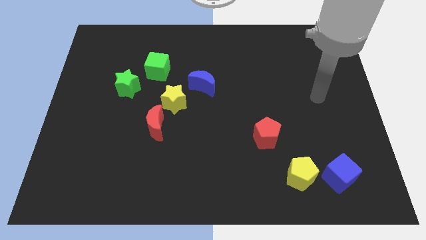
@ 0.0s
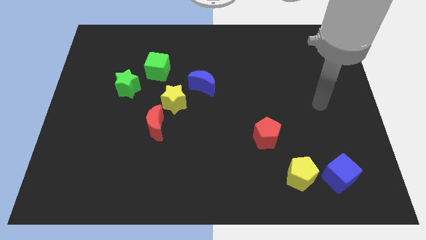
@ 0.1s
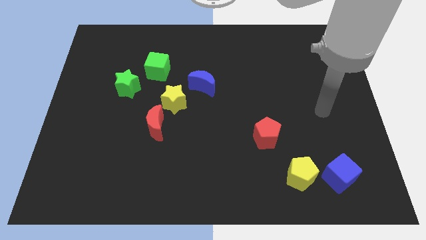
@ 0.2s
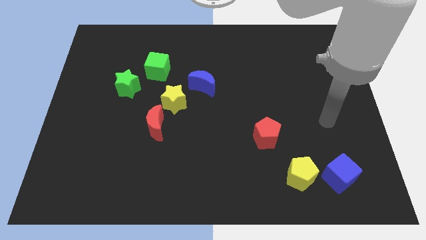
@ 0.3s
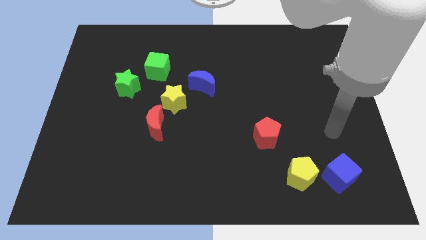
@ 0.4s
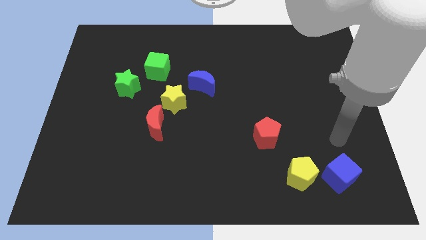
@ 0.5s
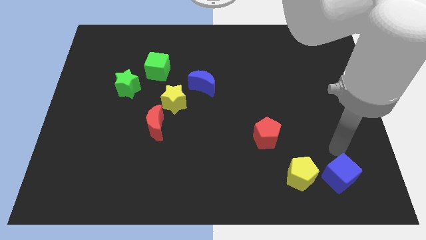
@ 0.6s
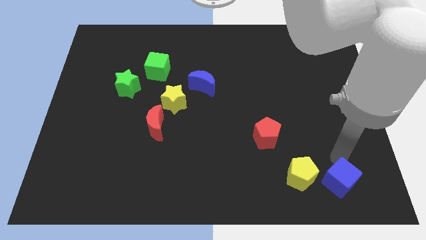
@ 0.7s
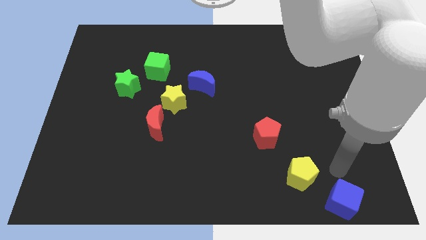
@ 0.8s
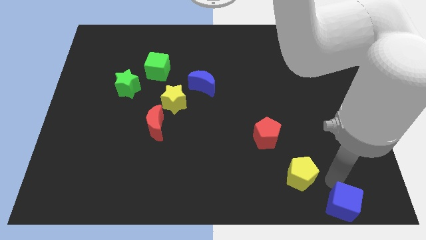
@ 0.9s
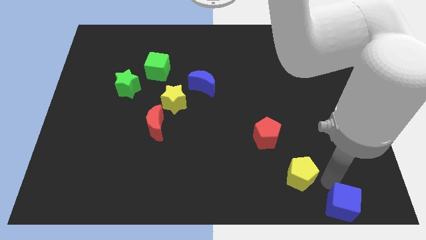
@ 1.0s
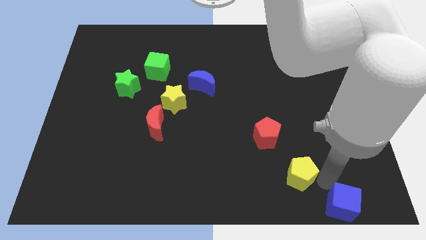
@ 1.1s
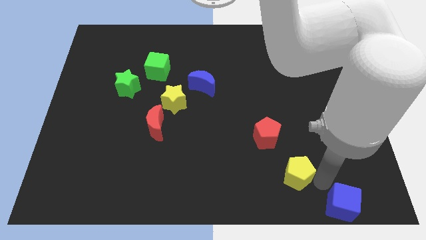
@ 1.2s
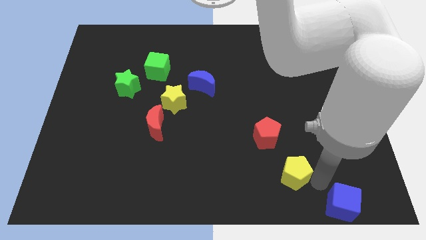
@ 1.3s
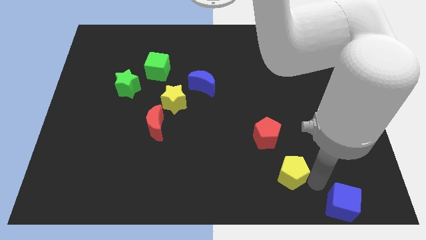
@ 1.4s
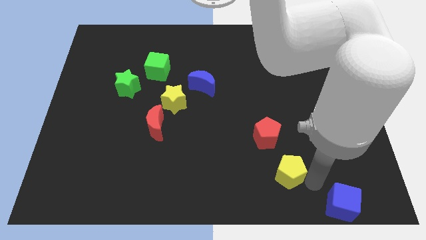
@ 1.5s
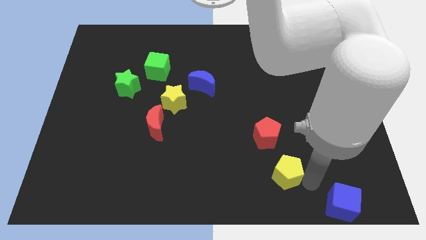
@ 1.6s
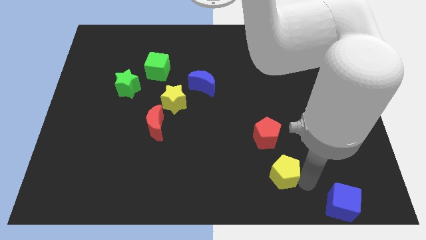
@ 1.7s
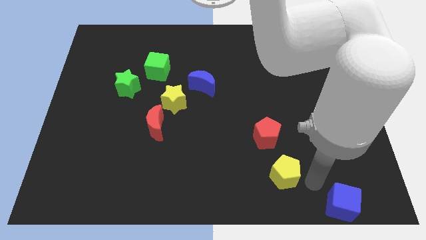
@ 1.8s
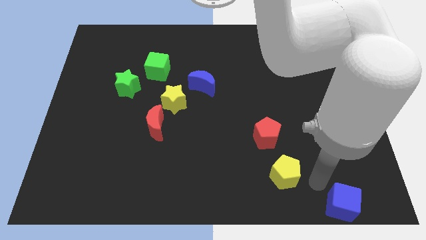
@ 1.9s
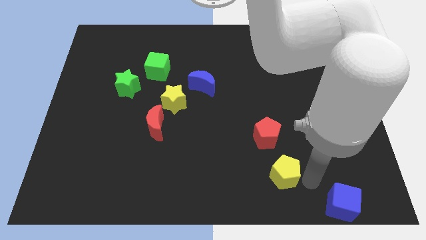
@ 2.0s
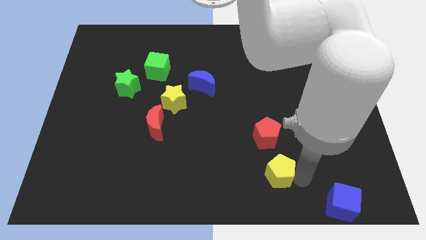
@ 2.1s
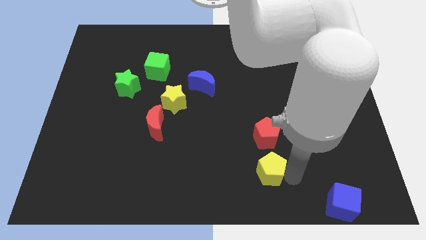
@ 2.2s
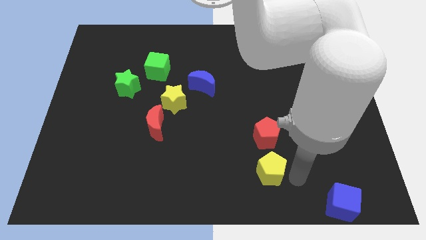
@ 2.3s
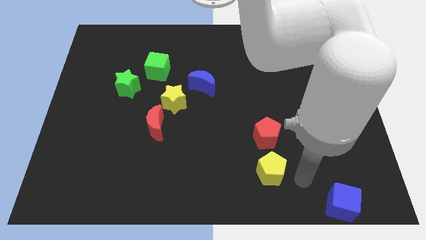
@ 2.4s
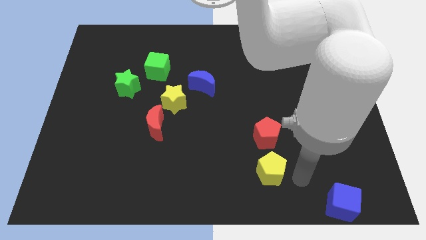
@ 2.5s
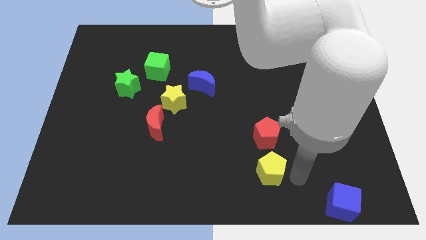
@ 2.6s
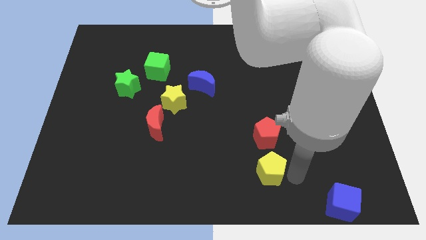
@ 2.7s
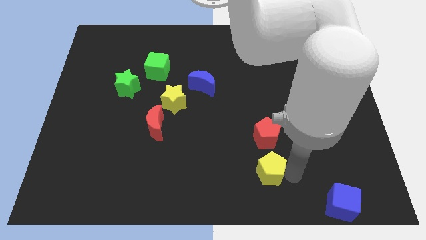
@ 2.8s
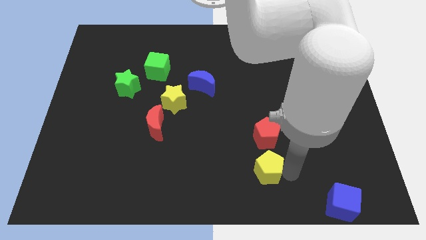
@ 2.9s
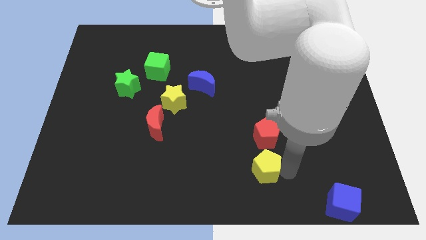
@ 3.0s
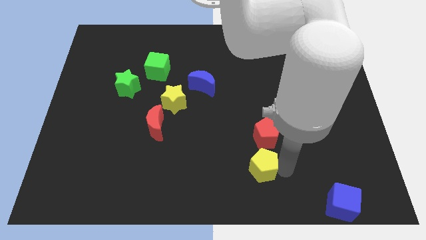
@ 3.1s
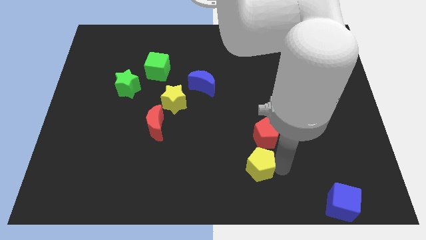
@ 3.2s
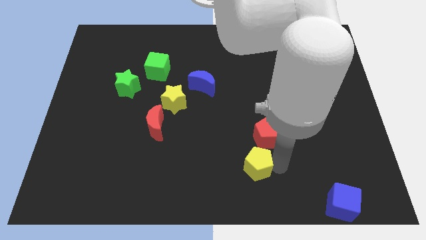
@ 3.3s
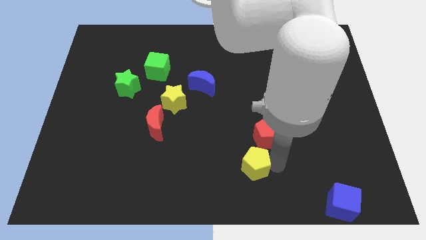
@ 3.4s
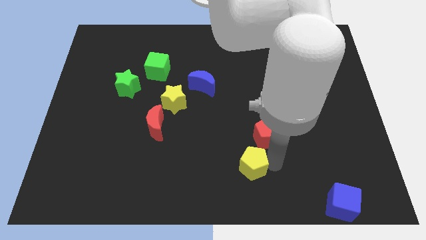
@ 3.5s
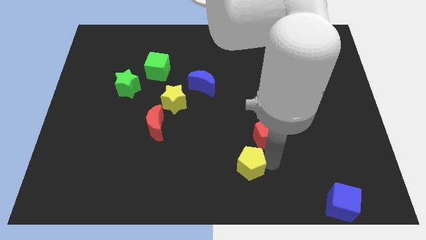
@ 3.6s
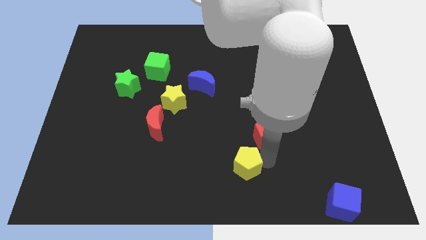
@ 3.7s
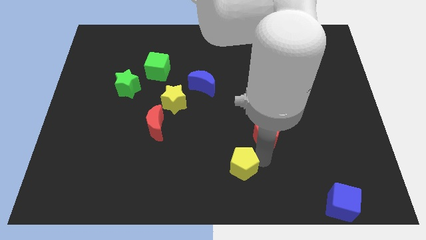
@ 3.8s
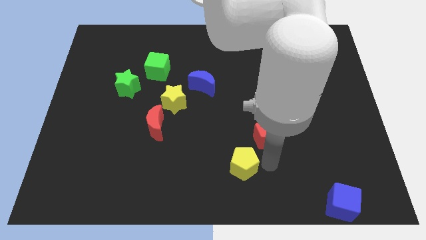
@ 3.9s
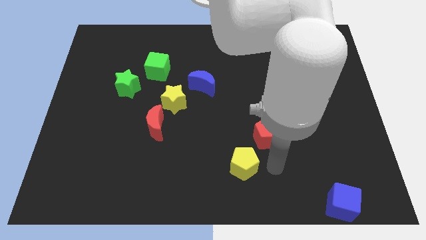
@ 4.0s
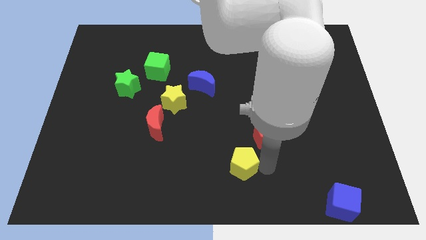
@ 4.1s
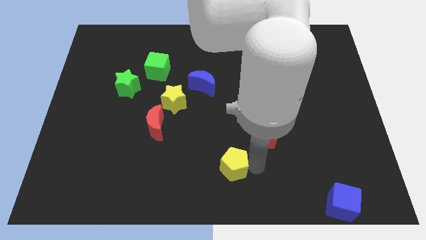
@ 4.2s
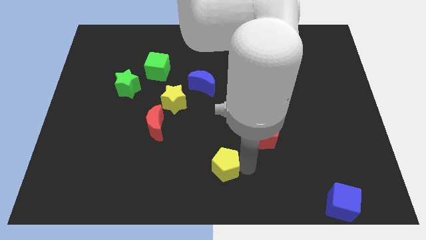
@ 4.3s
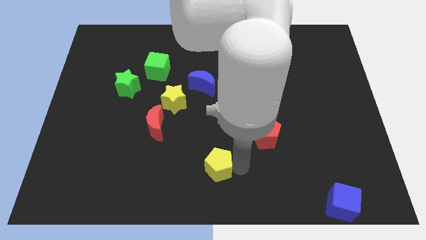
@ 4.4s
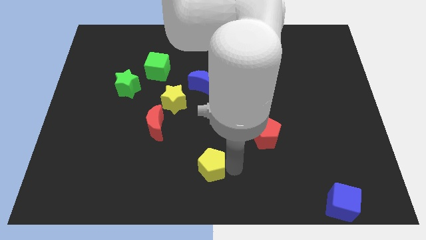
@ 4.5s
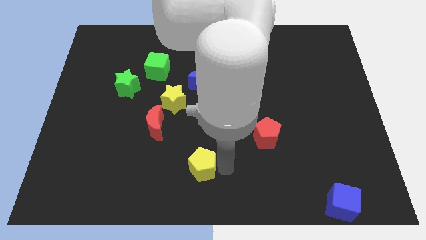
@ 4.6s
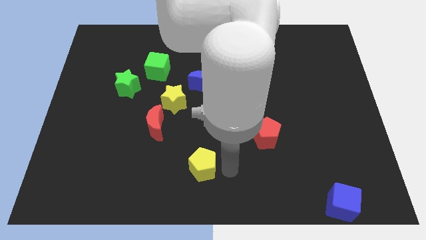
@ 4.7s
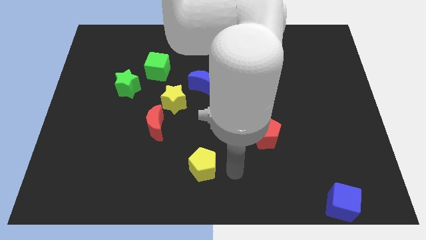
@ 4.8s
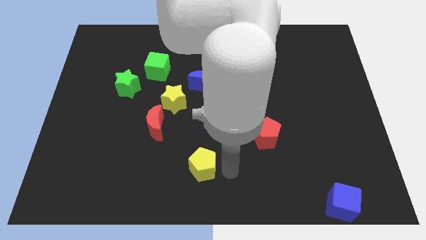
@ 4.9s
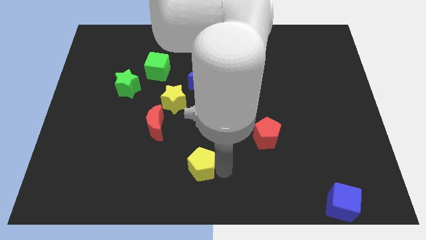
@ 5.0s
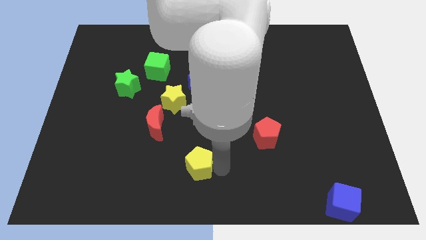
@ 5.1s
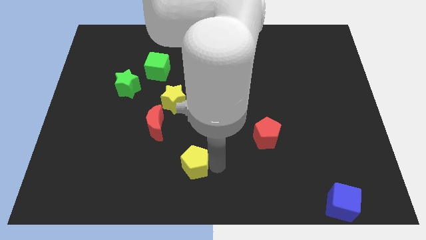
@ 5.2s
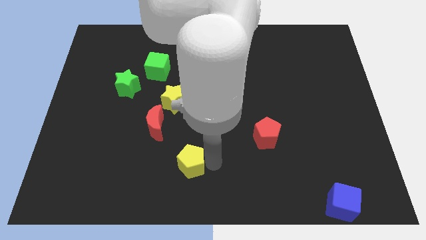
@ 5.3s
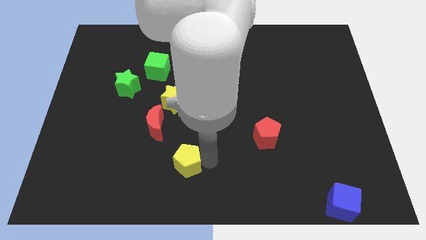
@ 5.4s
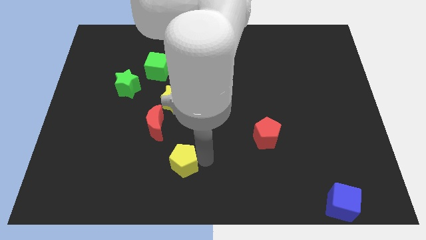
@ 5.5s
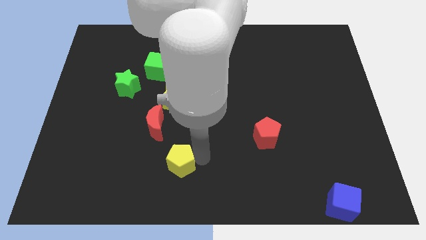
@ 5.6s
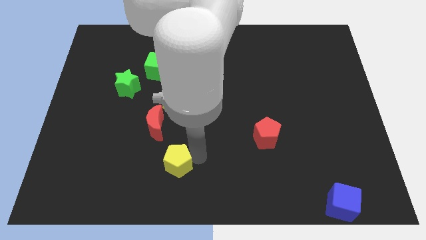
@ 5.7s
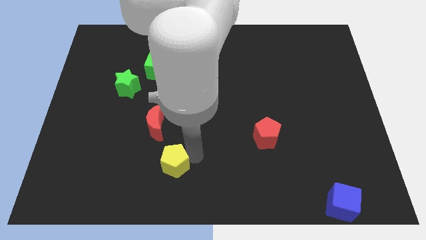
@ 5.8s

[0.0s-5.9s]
put the yellow pentagon to the bottom side of the red moon

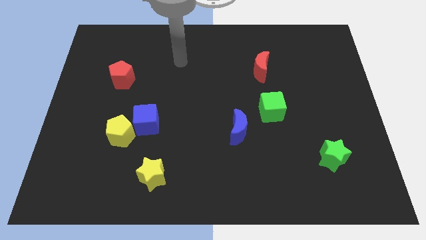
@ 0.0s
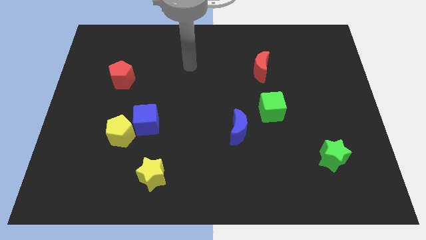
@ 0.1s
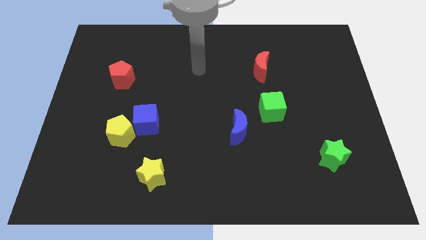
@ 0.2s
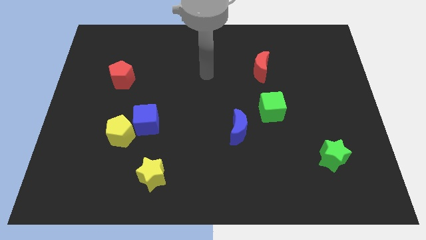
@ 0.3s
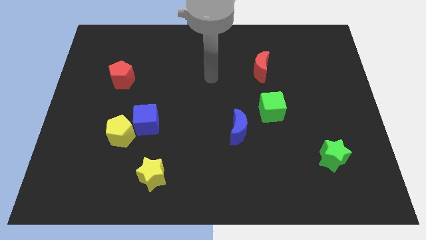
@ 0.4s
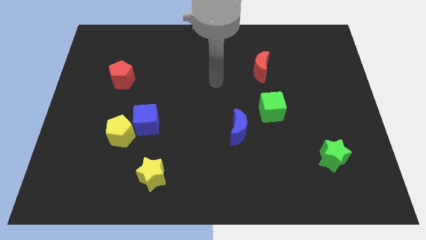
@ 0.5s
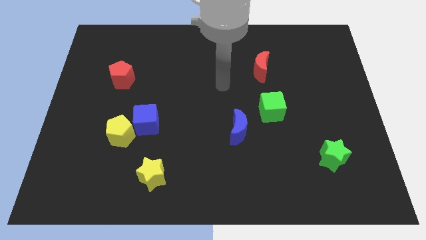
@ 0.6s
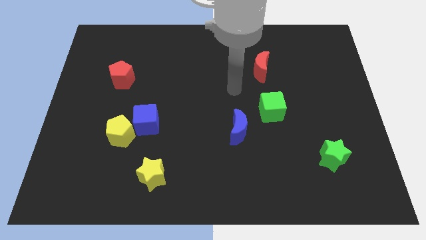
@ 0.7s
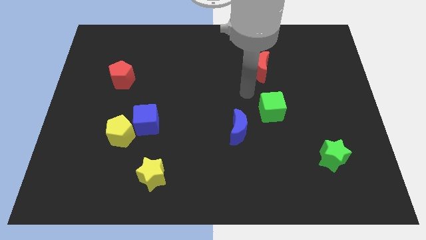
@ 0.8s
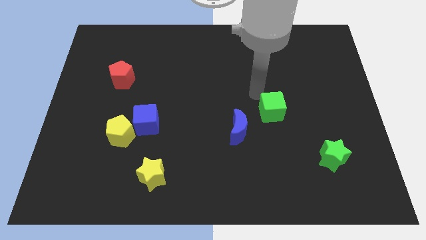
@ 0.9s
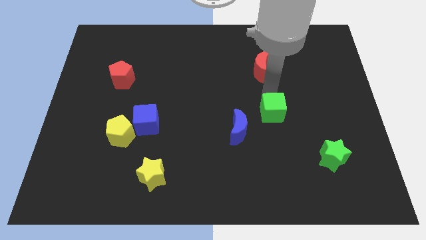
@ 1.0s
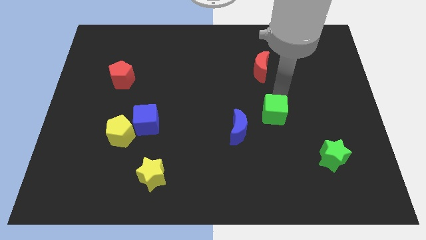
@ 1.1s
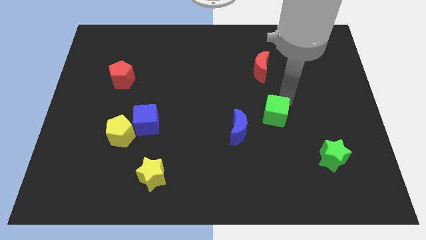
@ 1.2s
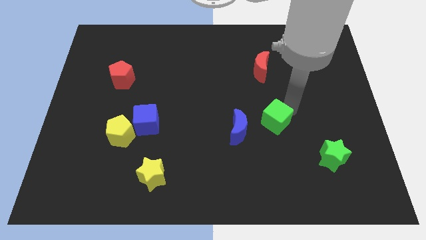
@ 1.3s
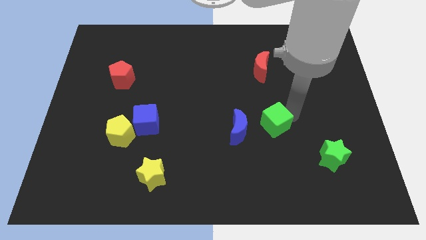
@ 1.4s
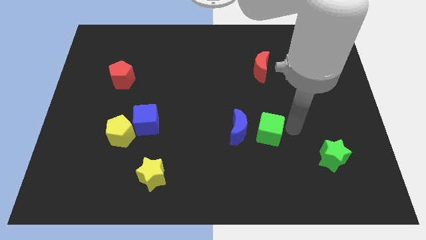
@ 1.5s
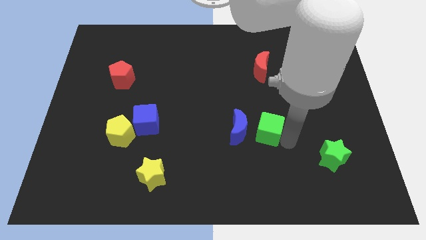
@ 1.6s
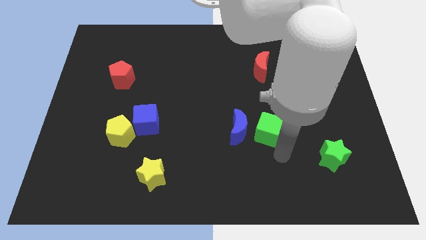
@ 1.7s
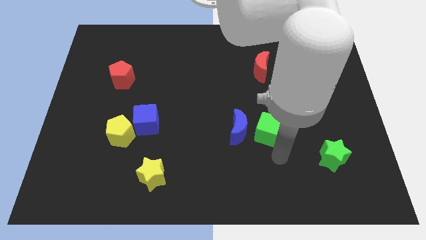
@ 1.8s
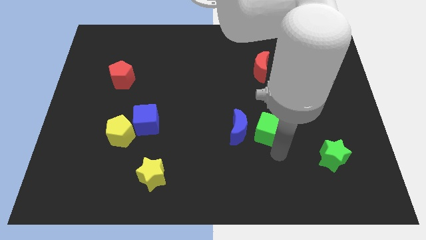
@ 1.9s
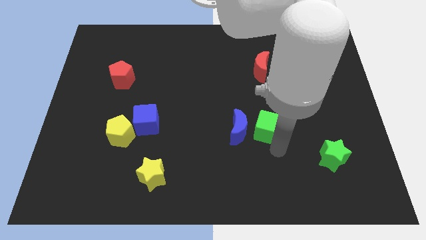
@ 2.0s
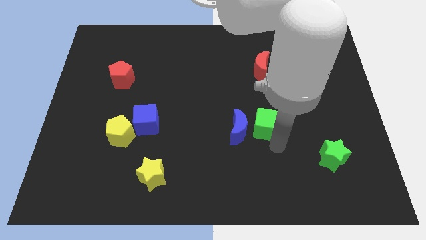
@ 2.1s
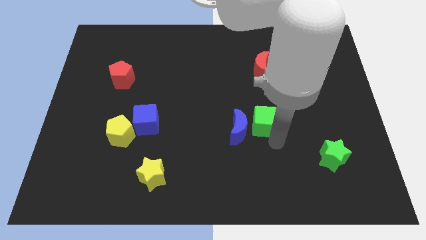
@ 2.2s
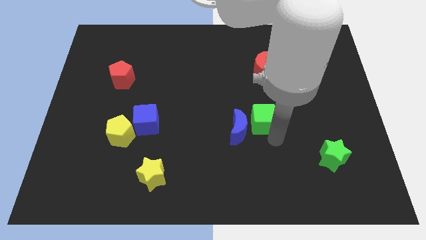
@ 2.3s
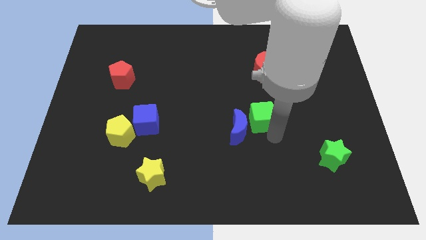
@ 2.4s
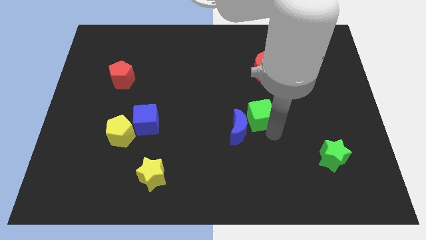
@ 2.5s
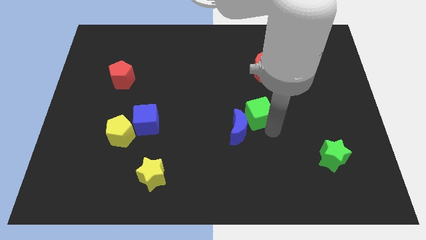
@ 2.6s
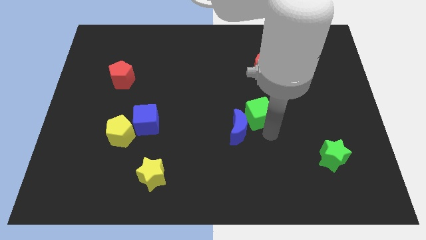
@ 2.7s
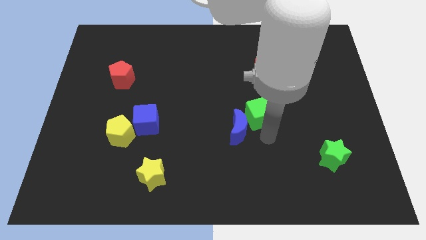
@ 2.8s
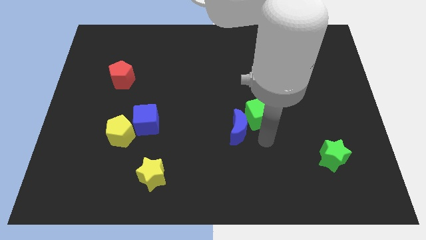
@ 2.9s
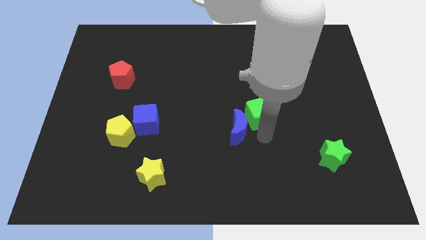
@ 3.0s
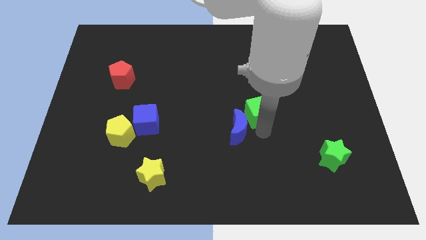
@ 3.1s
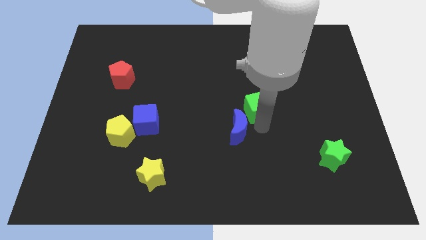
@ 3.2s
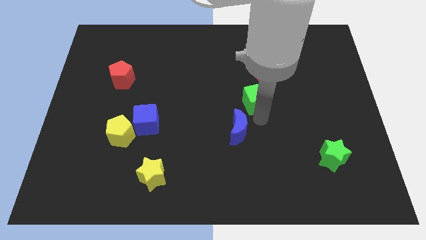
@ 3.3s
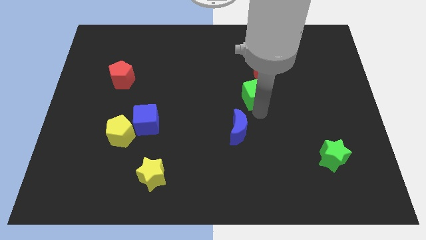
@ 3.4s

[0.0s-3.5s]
slide the green cube diagonally down and to the left of the red moon
